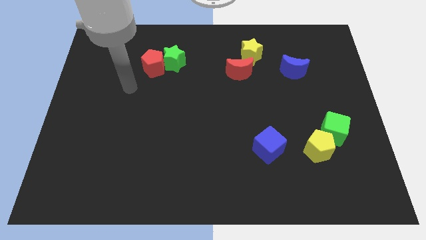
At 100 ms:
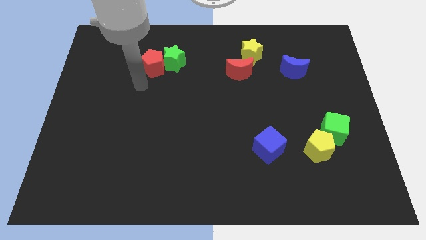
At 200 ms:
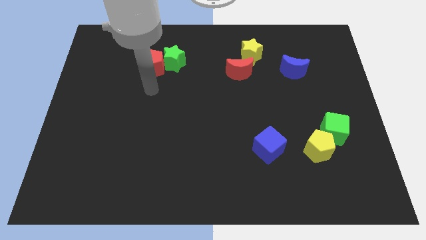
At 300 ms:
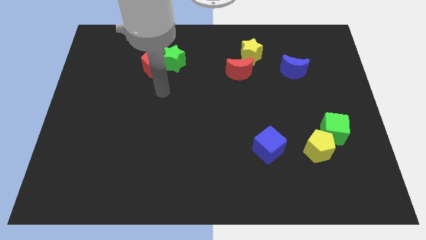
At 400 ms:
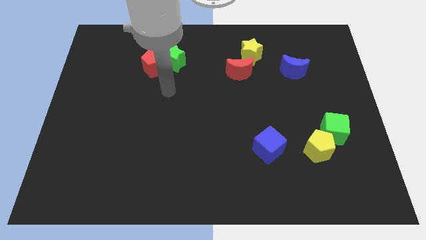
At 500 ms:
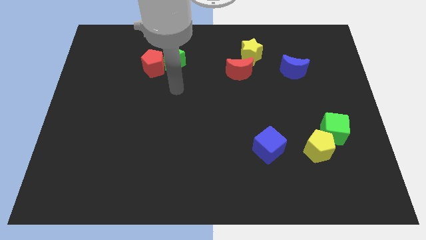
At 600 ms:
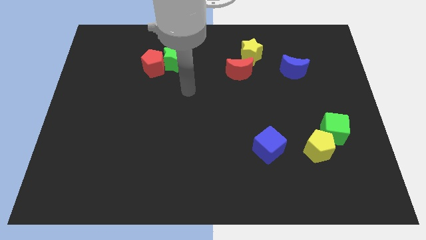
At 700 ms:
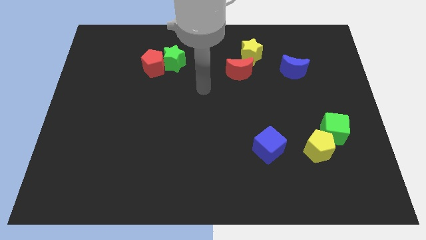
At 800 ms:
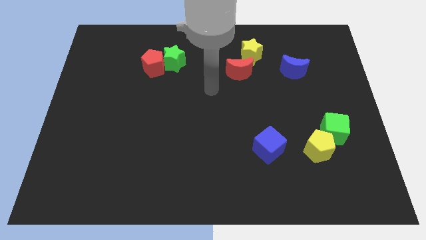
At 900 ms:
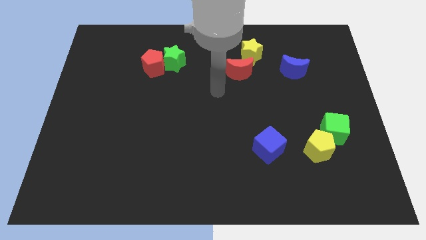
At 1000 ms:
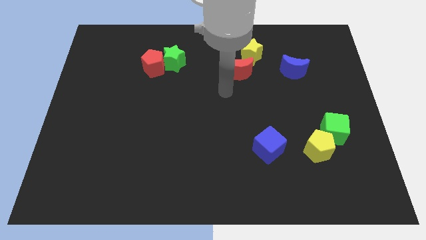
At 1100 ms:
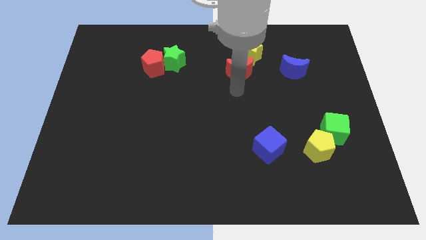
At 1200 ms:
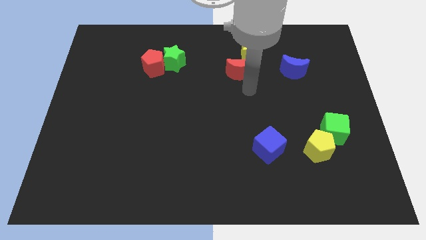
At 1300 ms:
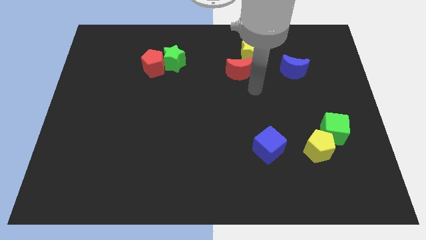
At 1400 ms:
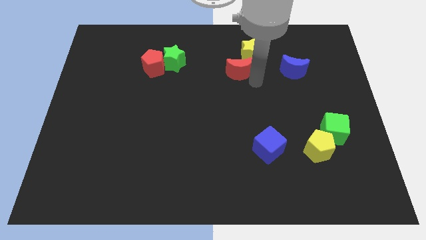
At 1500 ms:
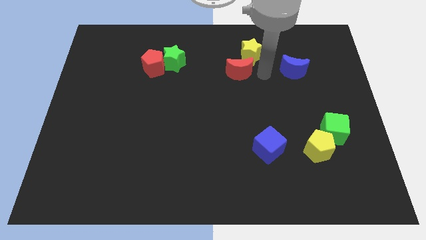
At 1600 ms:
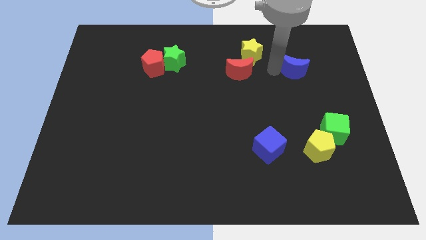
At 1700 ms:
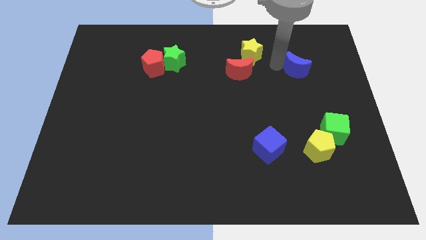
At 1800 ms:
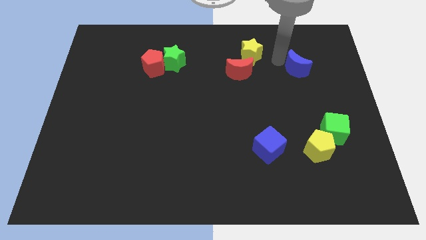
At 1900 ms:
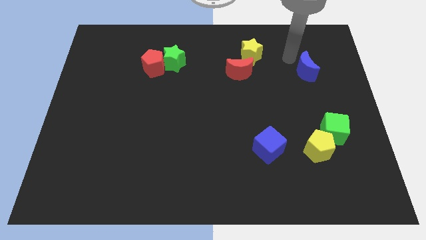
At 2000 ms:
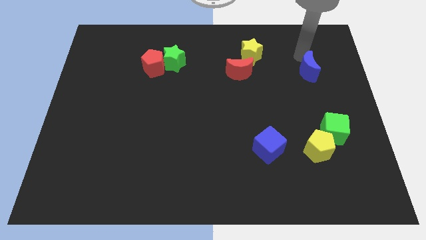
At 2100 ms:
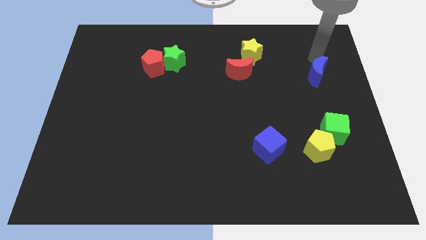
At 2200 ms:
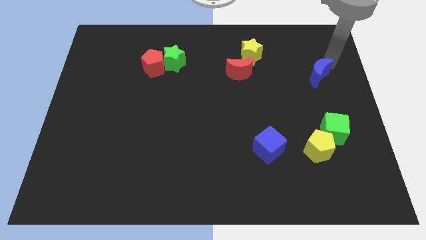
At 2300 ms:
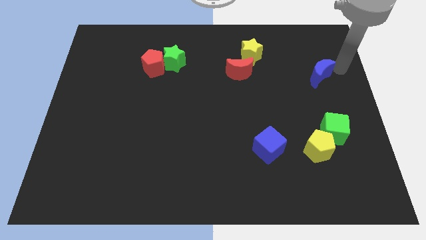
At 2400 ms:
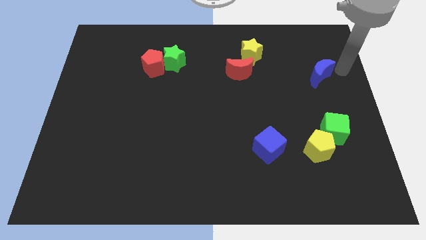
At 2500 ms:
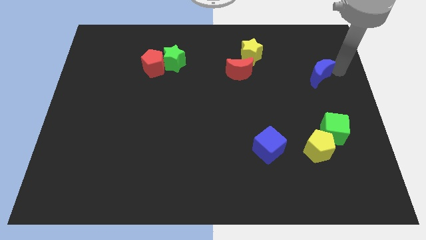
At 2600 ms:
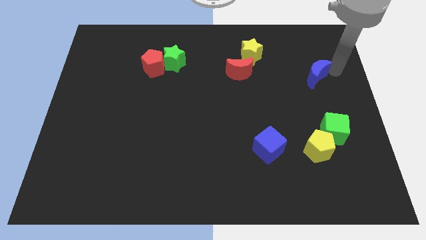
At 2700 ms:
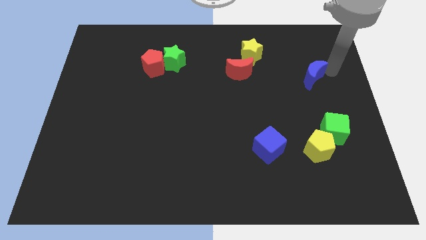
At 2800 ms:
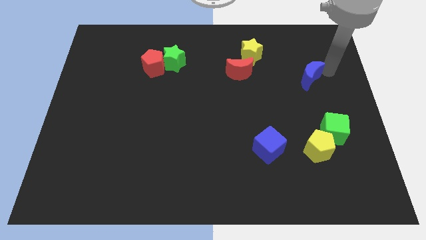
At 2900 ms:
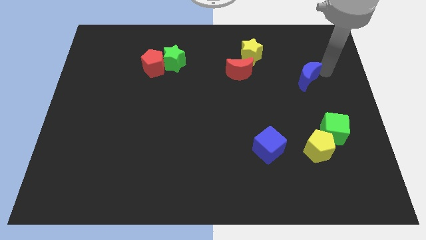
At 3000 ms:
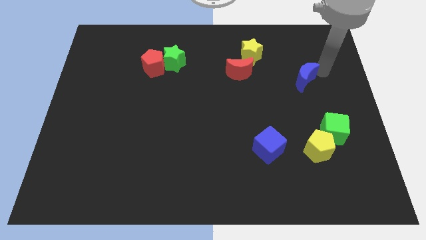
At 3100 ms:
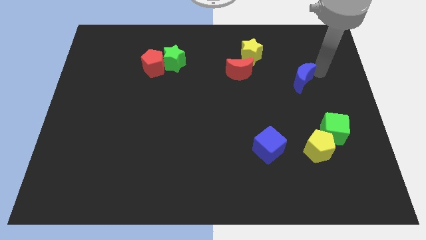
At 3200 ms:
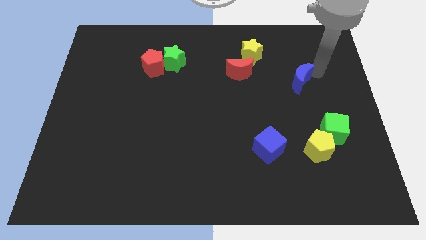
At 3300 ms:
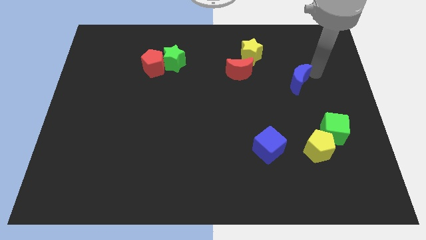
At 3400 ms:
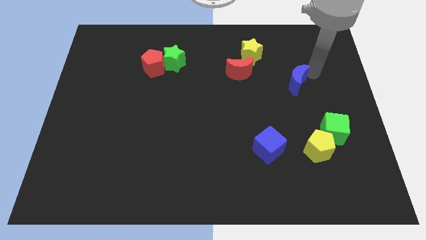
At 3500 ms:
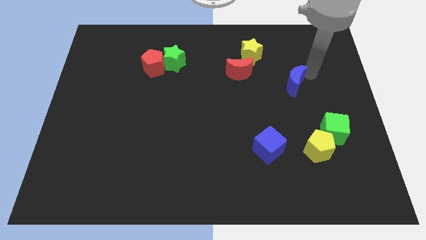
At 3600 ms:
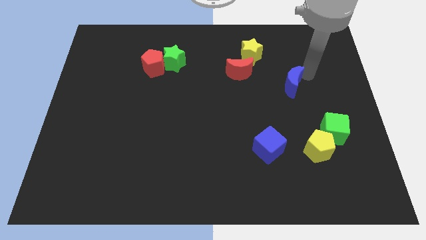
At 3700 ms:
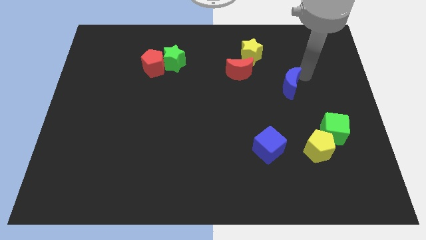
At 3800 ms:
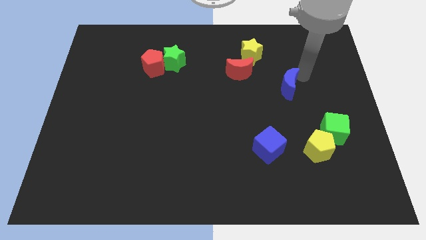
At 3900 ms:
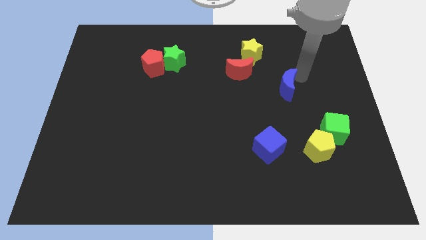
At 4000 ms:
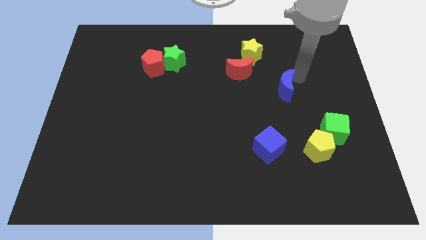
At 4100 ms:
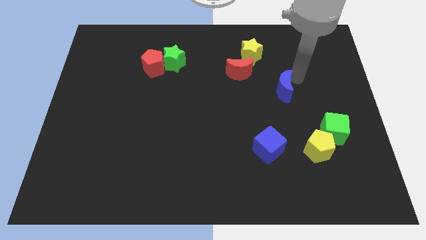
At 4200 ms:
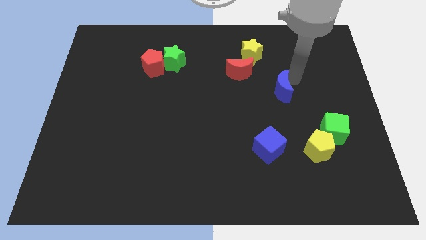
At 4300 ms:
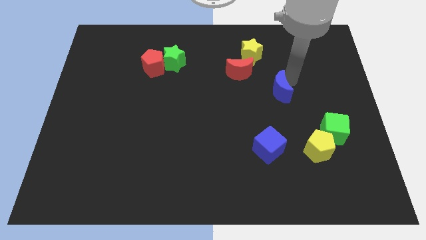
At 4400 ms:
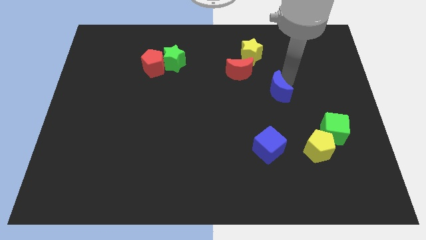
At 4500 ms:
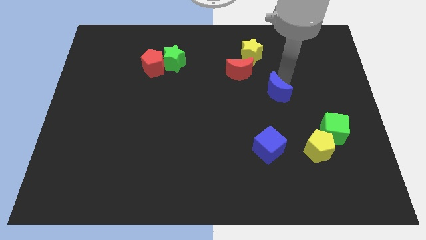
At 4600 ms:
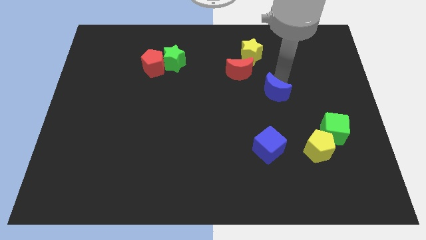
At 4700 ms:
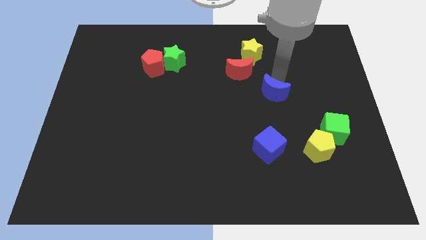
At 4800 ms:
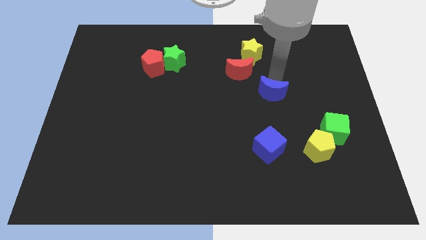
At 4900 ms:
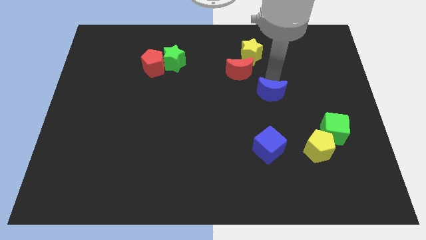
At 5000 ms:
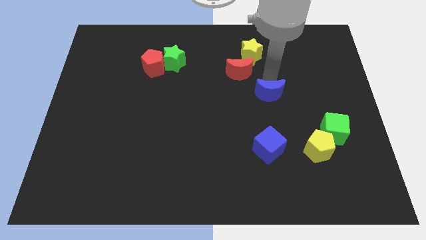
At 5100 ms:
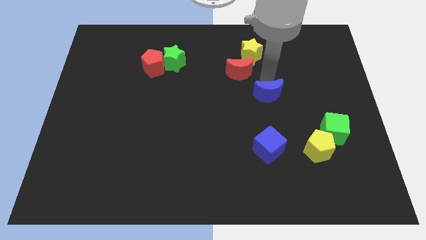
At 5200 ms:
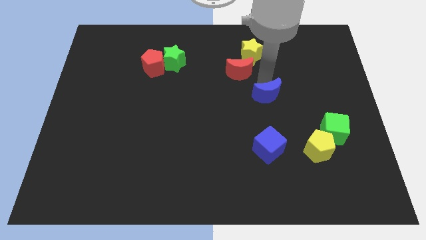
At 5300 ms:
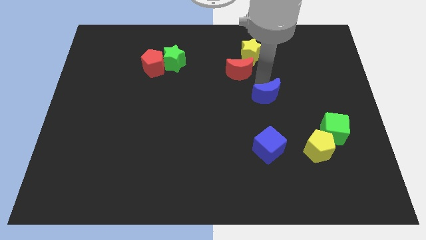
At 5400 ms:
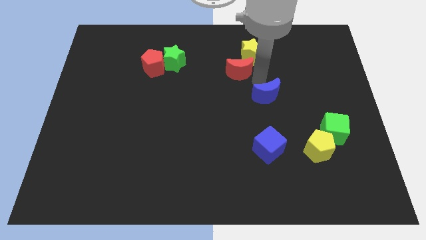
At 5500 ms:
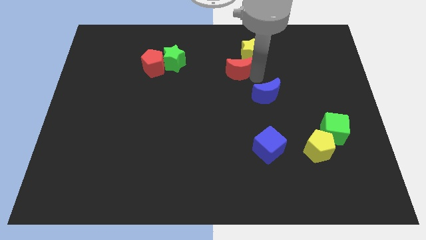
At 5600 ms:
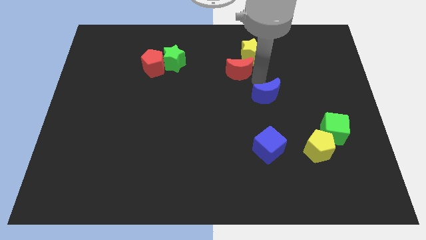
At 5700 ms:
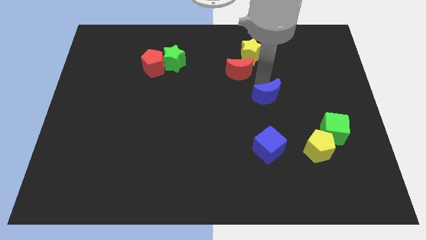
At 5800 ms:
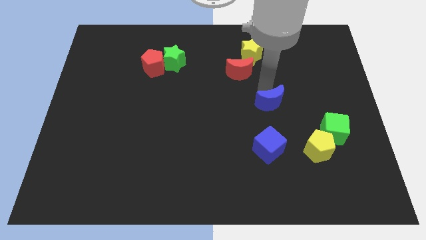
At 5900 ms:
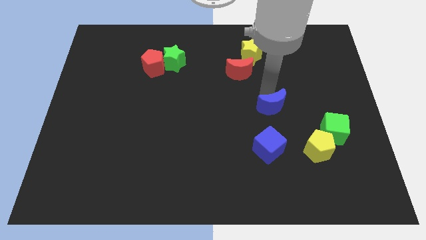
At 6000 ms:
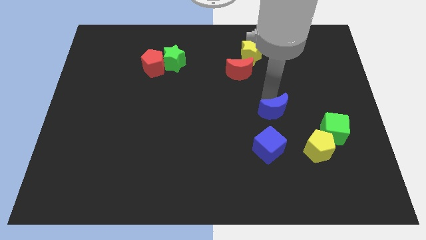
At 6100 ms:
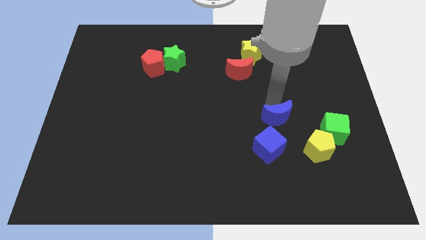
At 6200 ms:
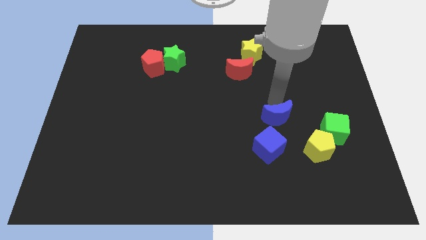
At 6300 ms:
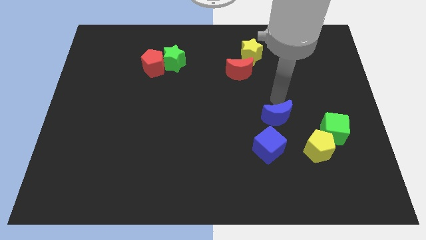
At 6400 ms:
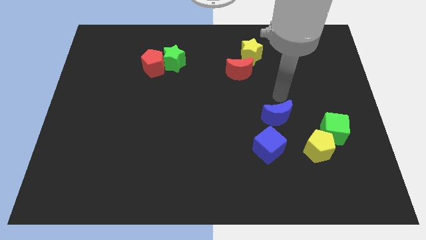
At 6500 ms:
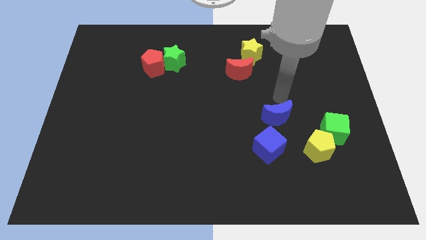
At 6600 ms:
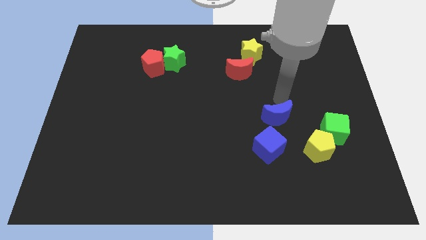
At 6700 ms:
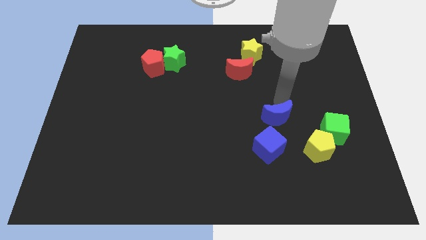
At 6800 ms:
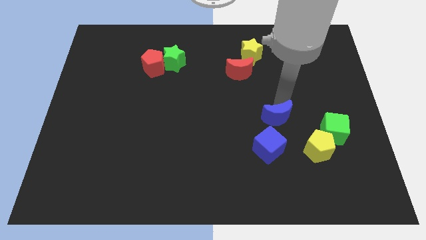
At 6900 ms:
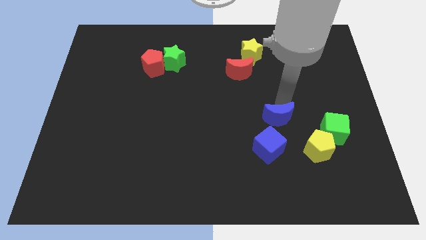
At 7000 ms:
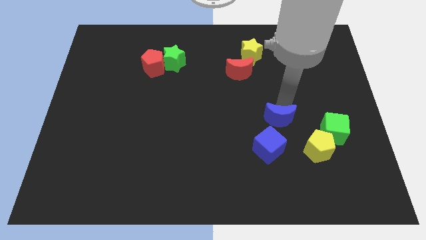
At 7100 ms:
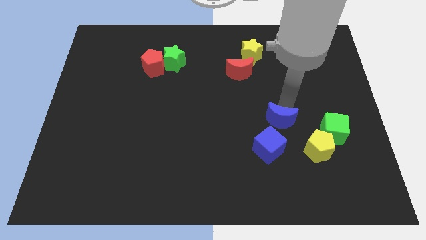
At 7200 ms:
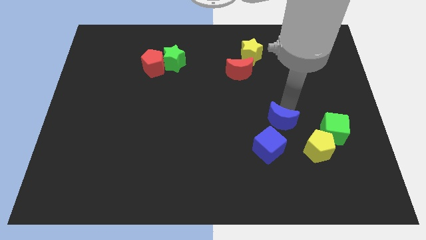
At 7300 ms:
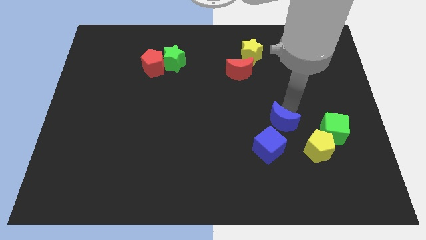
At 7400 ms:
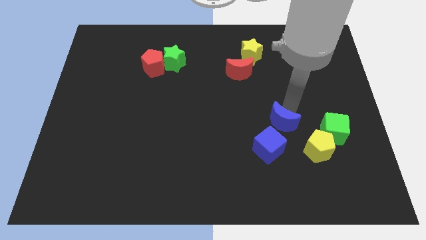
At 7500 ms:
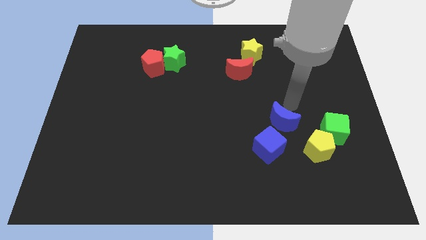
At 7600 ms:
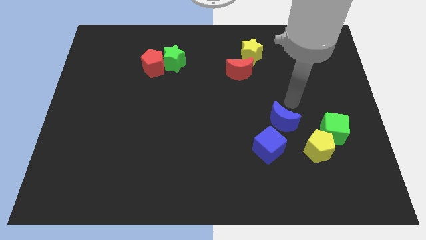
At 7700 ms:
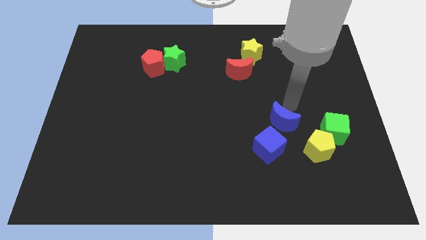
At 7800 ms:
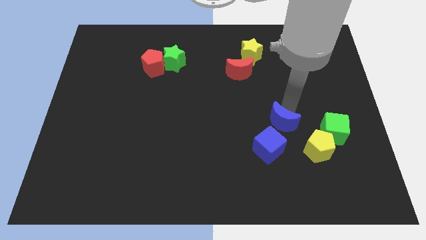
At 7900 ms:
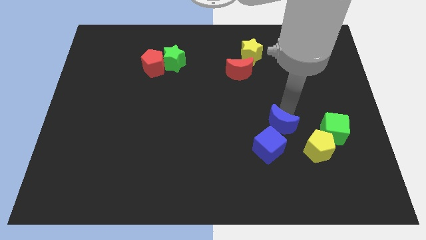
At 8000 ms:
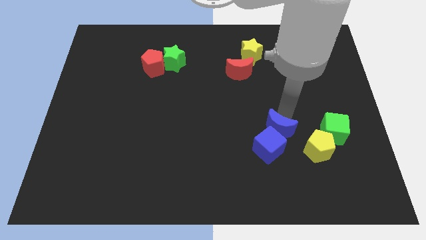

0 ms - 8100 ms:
put the blue moon towards the blue cube
